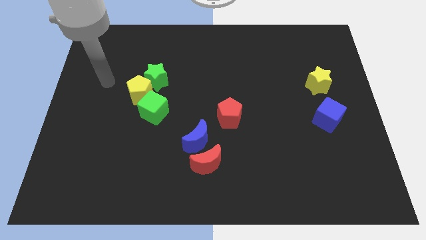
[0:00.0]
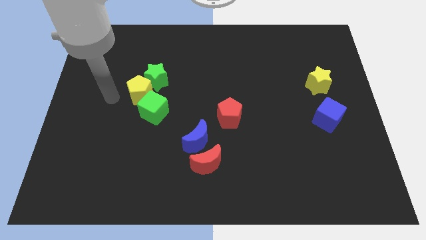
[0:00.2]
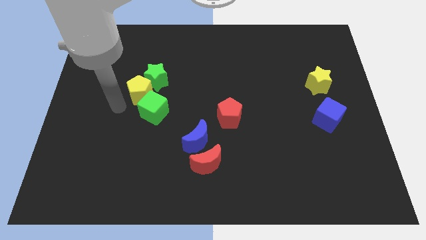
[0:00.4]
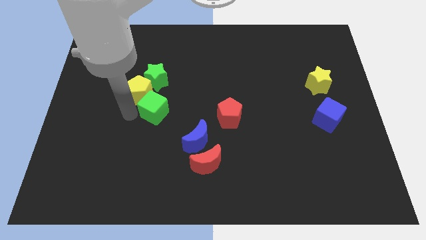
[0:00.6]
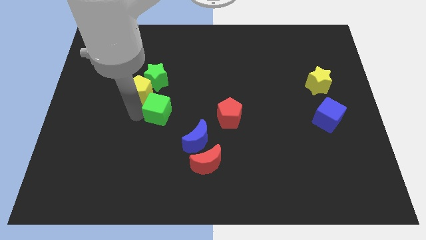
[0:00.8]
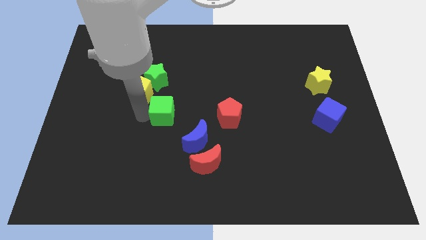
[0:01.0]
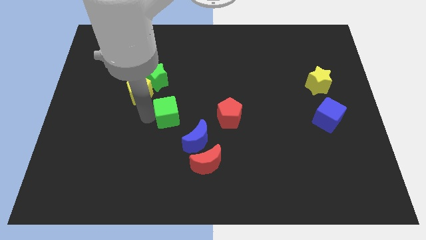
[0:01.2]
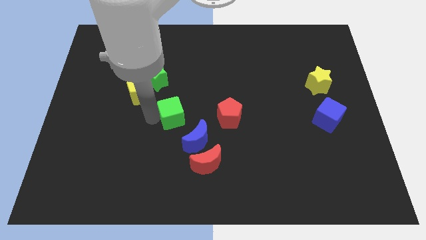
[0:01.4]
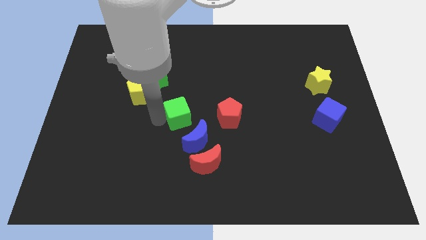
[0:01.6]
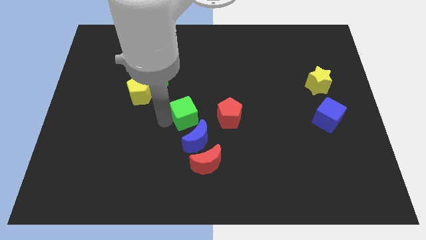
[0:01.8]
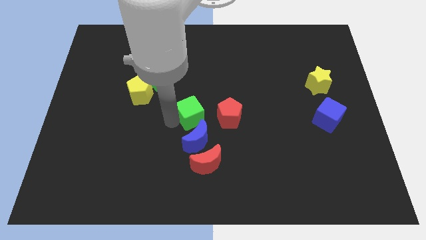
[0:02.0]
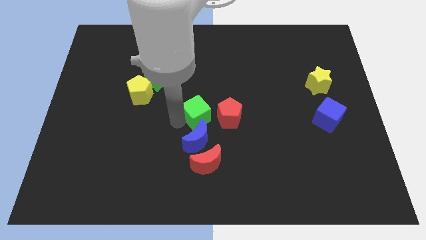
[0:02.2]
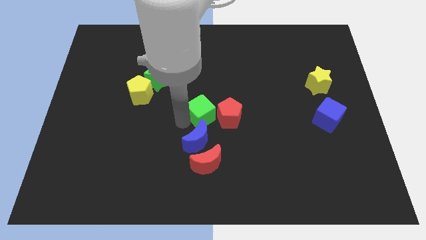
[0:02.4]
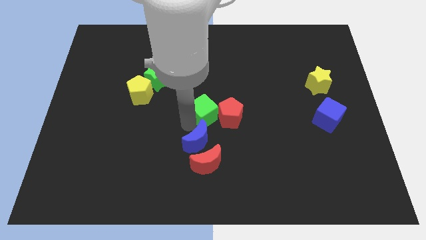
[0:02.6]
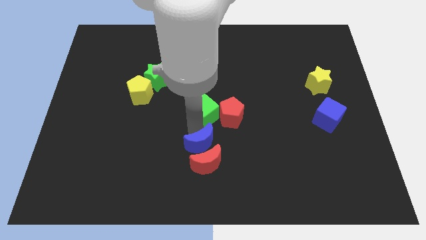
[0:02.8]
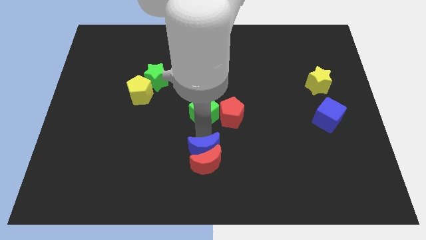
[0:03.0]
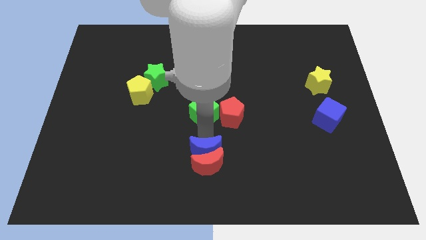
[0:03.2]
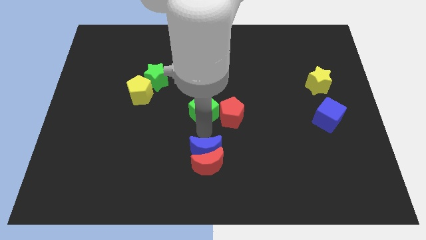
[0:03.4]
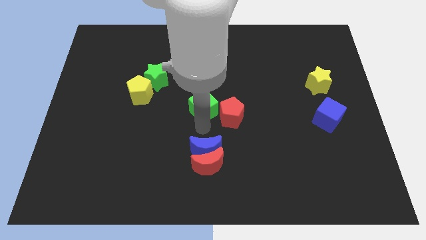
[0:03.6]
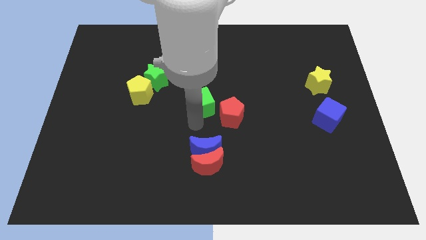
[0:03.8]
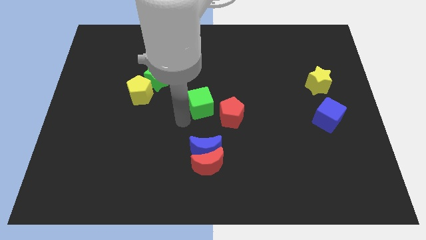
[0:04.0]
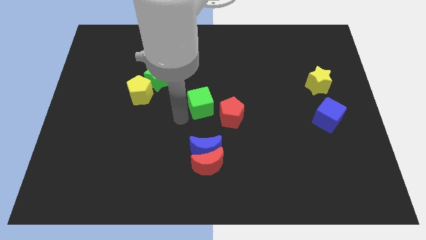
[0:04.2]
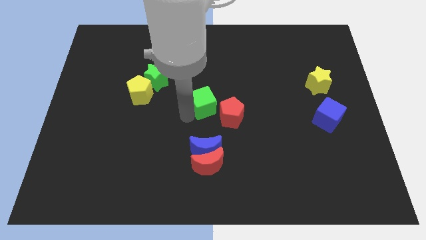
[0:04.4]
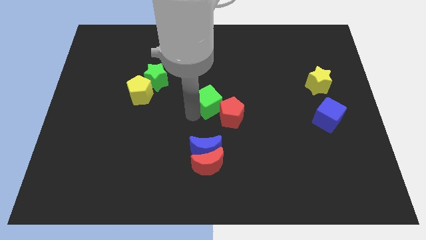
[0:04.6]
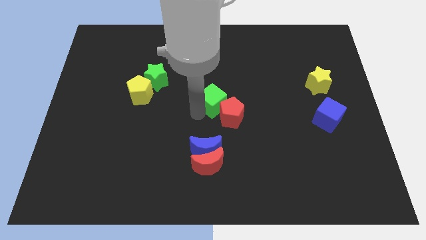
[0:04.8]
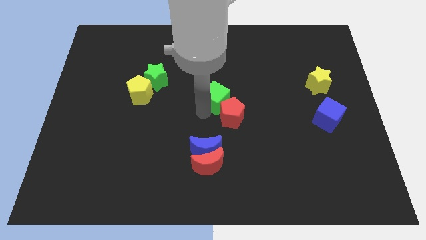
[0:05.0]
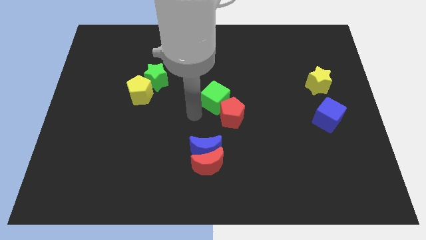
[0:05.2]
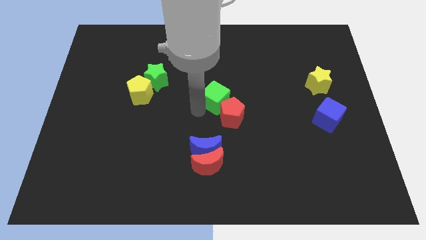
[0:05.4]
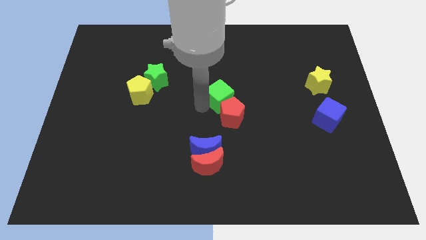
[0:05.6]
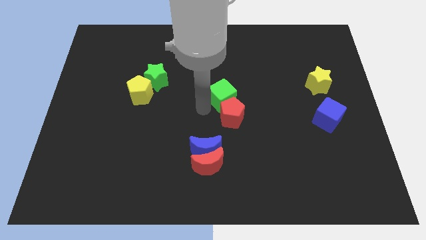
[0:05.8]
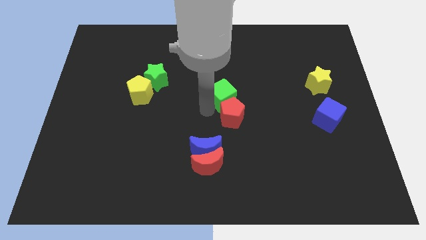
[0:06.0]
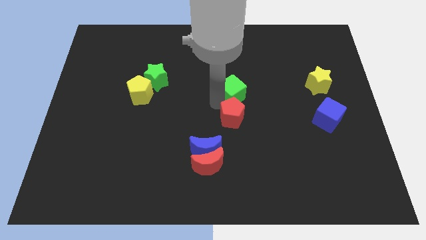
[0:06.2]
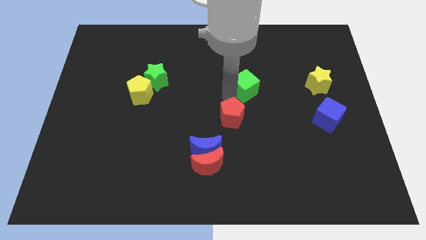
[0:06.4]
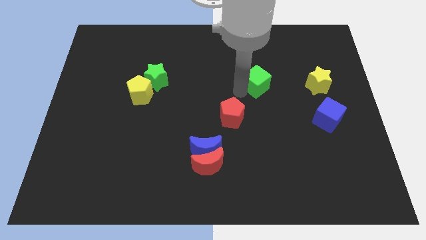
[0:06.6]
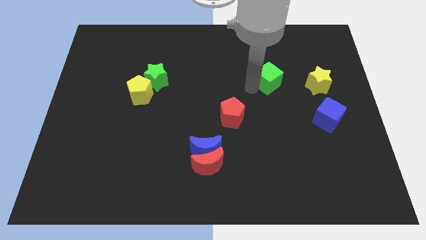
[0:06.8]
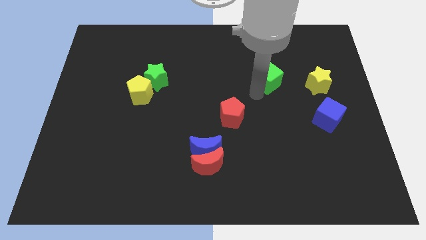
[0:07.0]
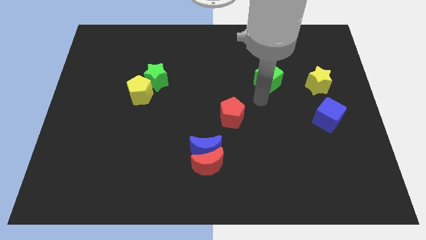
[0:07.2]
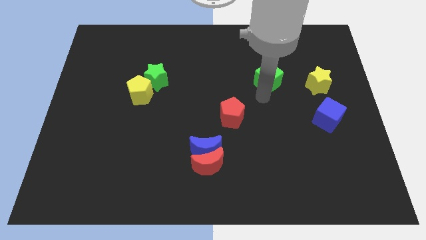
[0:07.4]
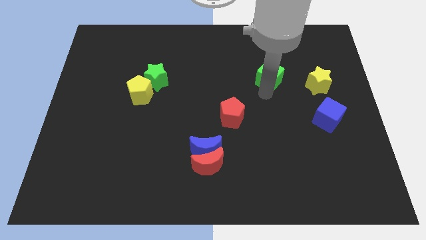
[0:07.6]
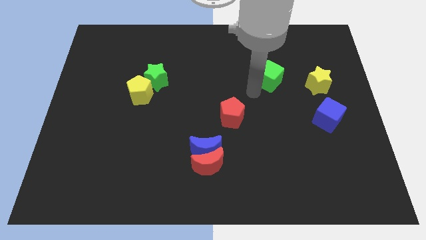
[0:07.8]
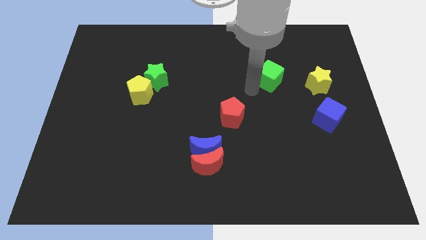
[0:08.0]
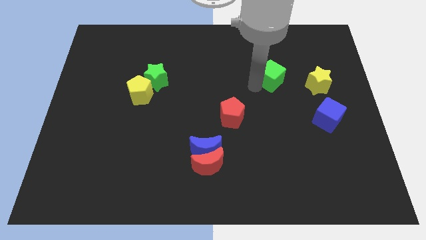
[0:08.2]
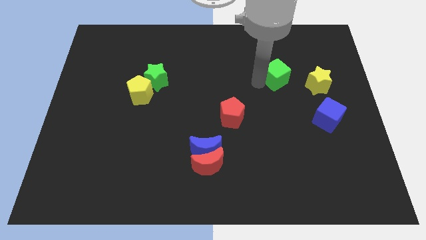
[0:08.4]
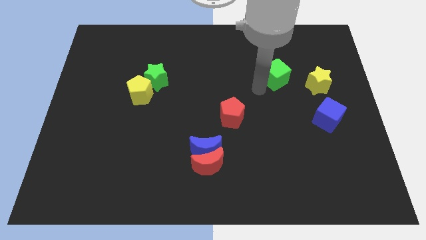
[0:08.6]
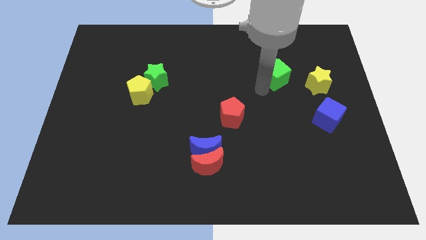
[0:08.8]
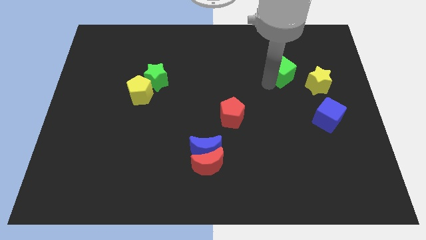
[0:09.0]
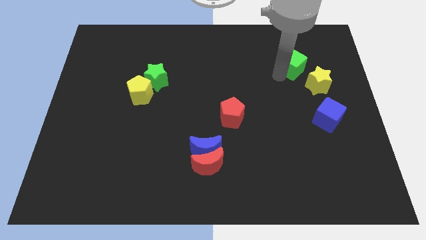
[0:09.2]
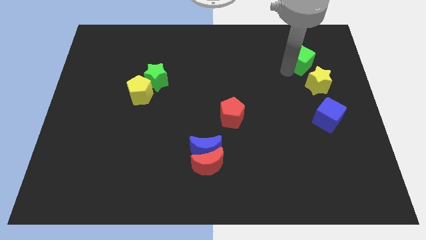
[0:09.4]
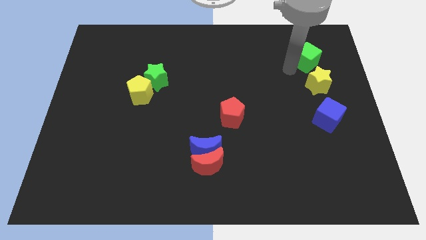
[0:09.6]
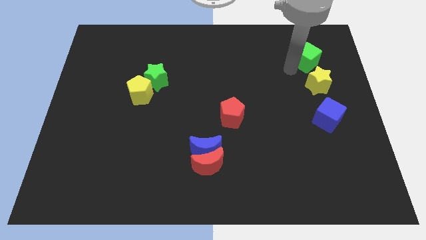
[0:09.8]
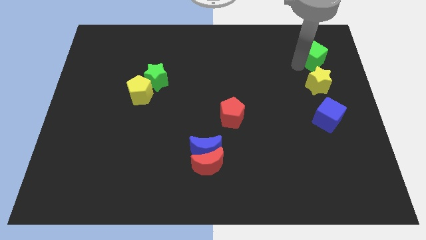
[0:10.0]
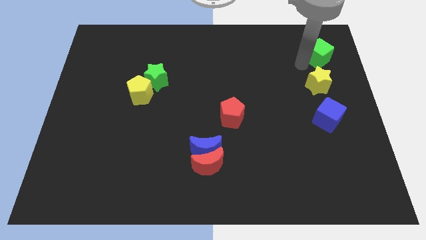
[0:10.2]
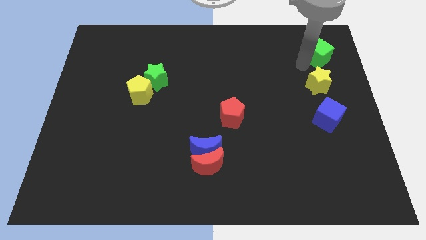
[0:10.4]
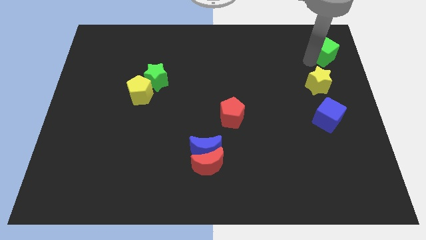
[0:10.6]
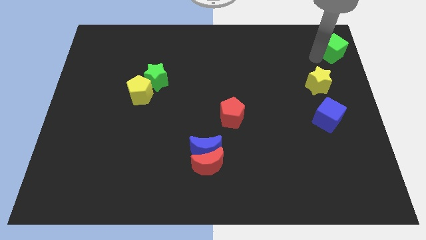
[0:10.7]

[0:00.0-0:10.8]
slide the green cube to the upper right corner

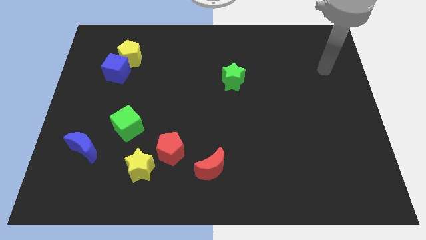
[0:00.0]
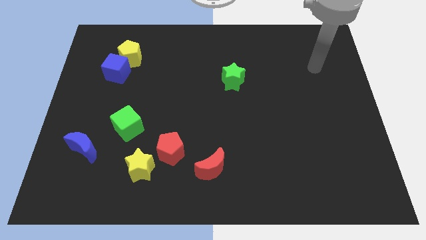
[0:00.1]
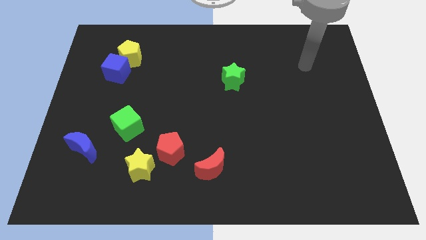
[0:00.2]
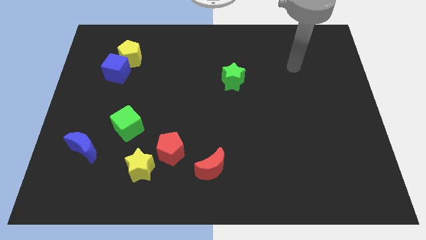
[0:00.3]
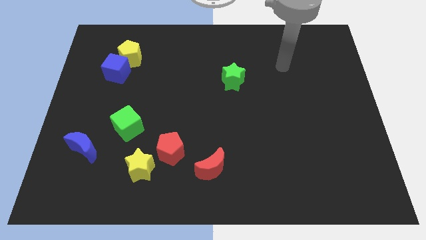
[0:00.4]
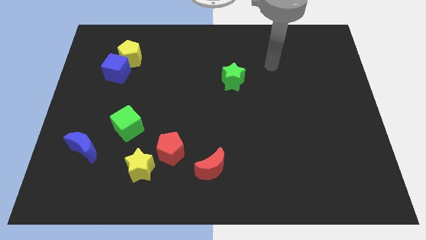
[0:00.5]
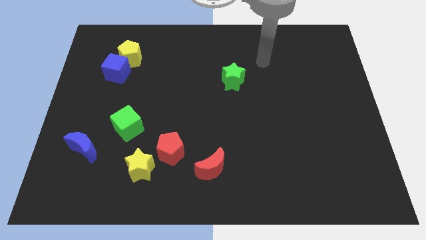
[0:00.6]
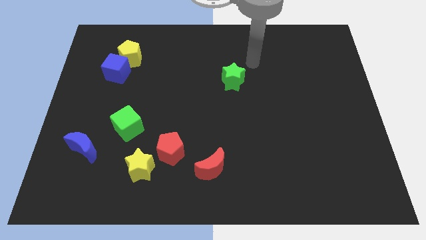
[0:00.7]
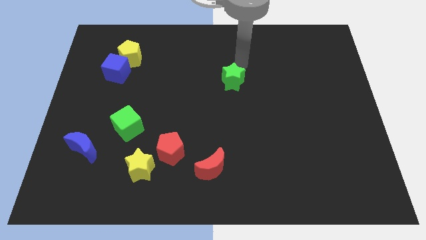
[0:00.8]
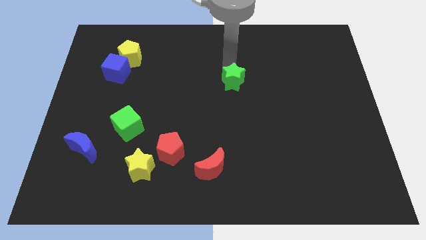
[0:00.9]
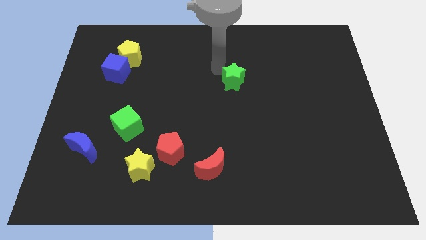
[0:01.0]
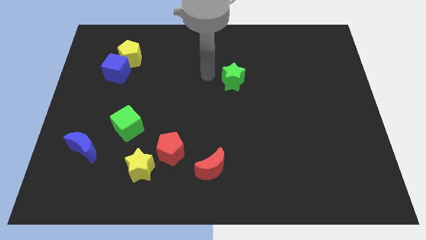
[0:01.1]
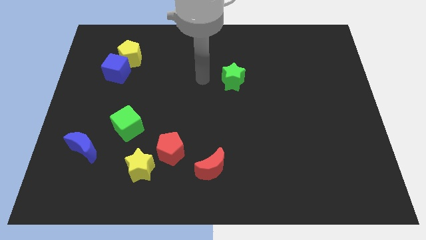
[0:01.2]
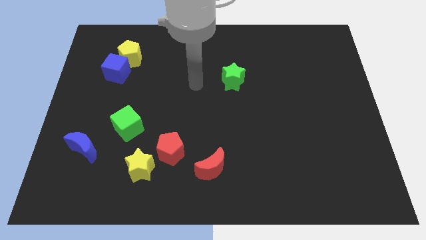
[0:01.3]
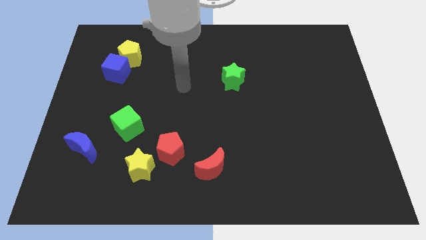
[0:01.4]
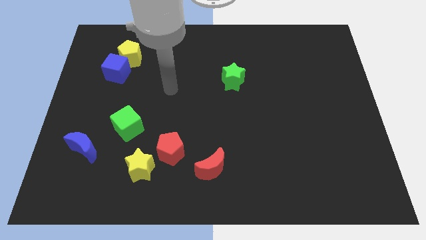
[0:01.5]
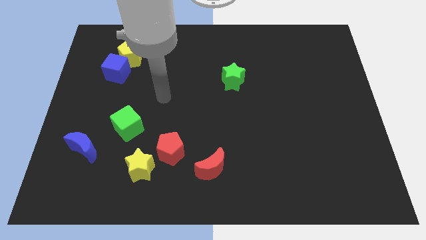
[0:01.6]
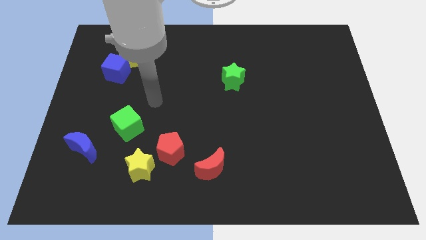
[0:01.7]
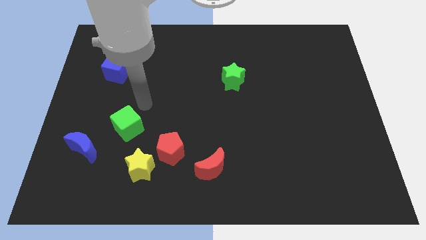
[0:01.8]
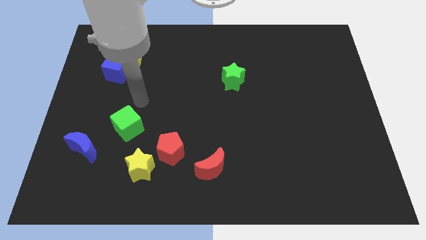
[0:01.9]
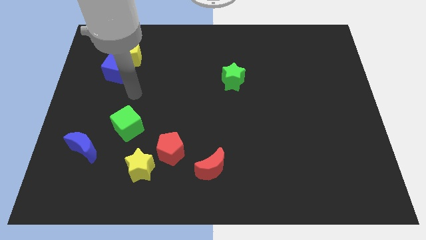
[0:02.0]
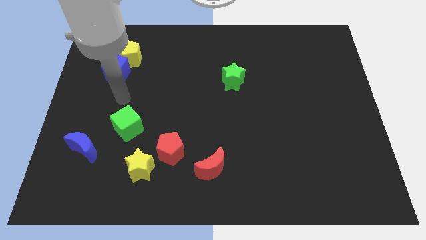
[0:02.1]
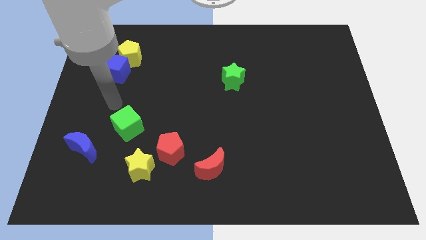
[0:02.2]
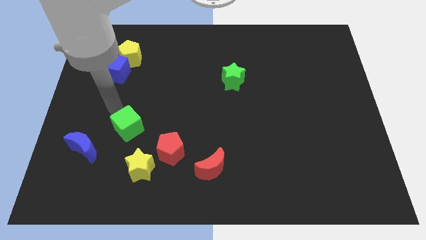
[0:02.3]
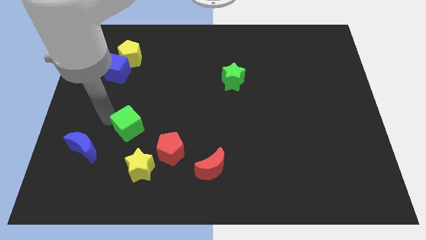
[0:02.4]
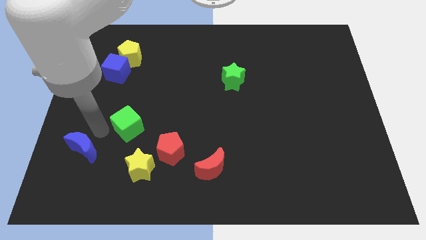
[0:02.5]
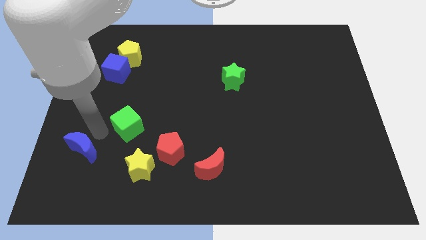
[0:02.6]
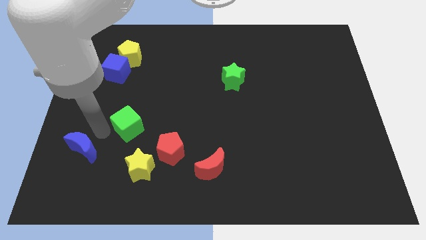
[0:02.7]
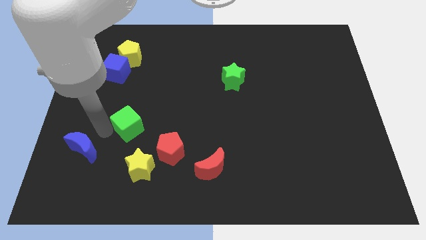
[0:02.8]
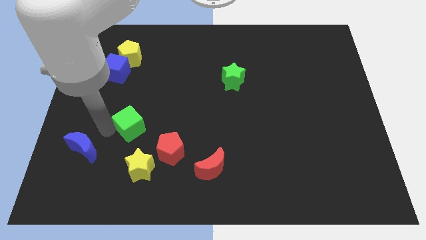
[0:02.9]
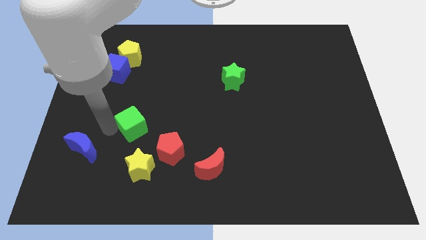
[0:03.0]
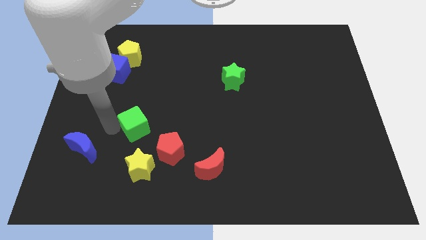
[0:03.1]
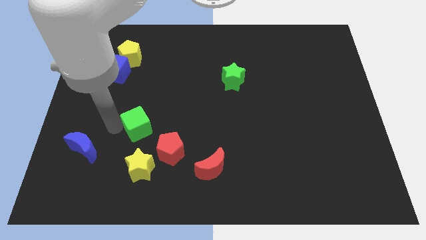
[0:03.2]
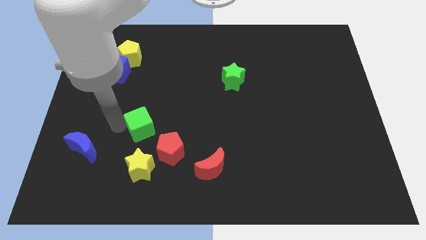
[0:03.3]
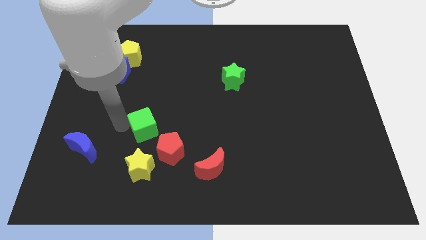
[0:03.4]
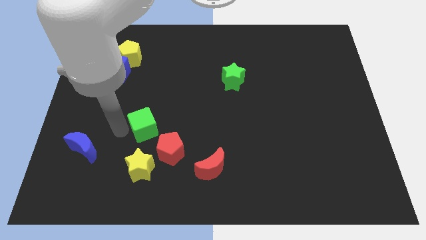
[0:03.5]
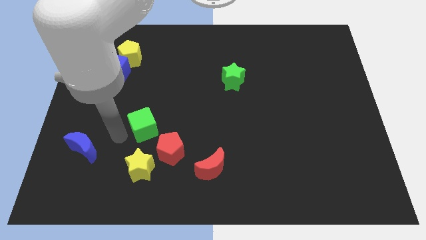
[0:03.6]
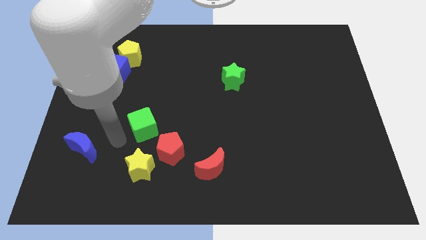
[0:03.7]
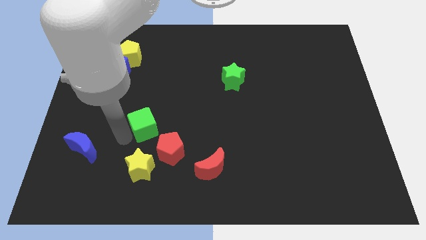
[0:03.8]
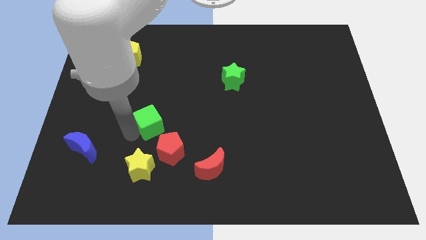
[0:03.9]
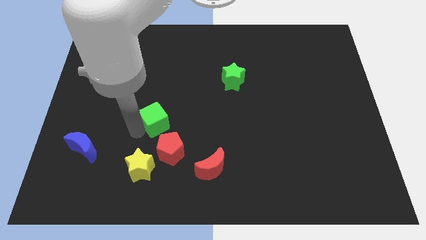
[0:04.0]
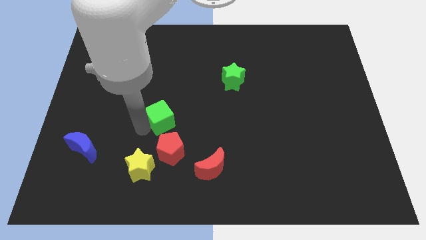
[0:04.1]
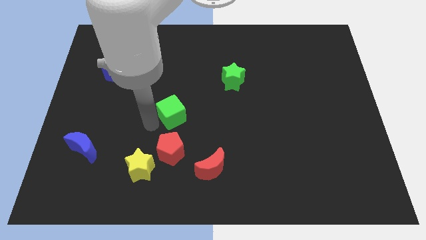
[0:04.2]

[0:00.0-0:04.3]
push the green cube to the middle of the board
